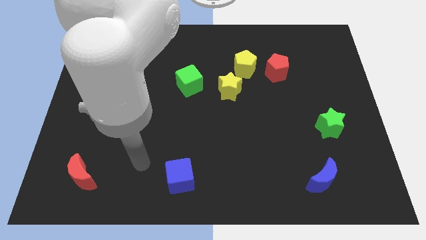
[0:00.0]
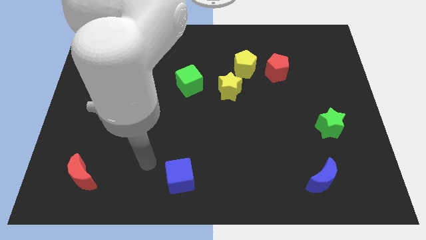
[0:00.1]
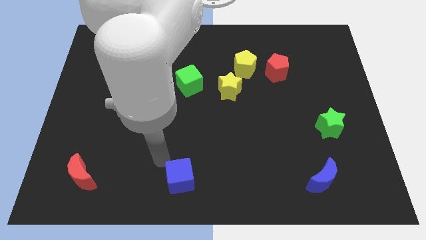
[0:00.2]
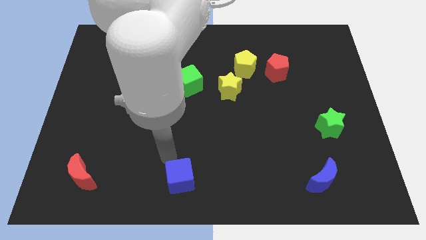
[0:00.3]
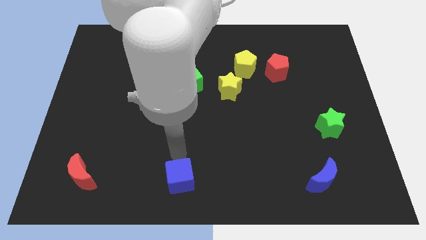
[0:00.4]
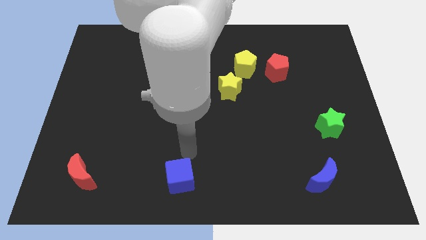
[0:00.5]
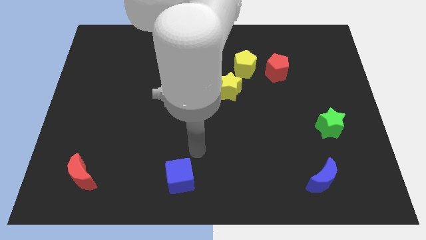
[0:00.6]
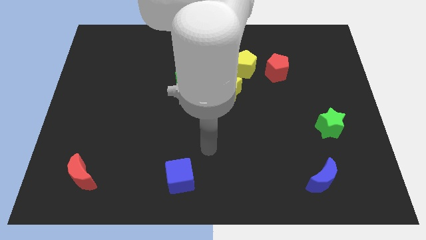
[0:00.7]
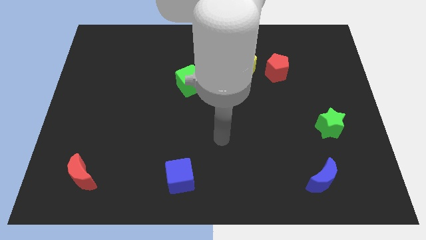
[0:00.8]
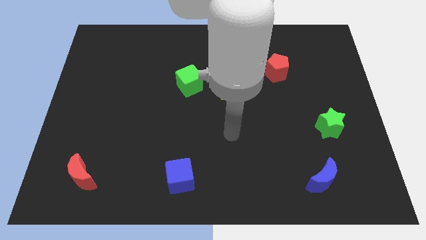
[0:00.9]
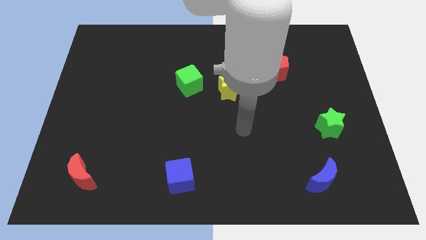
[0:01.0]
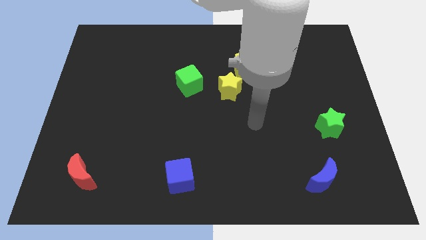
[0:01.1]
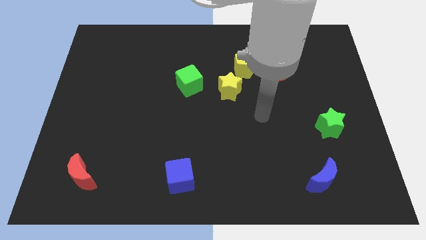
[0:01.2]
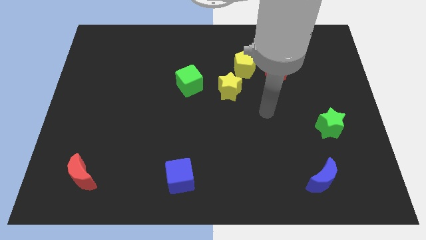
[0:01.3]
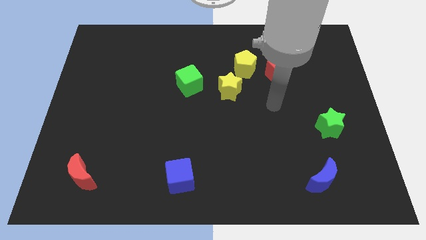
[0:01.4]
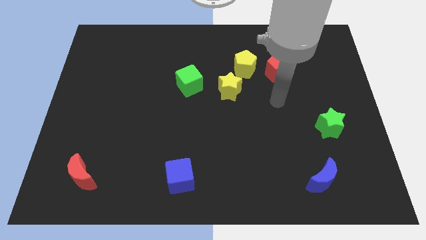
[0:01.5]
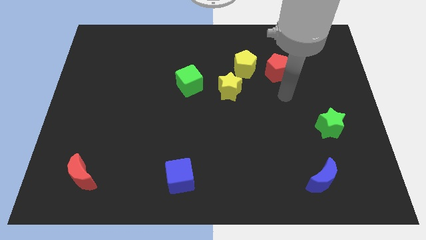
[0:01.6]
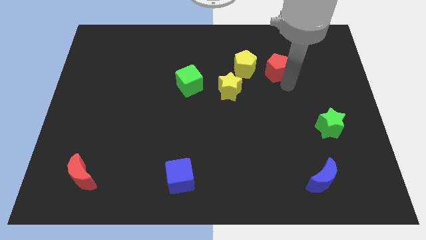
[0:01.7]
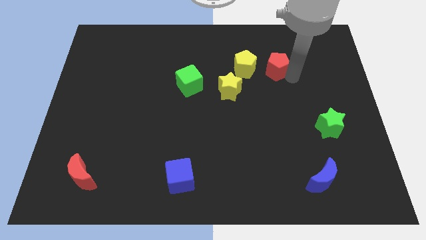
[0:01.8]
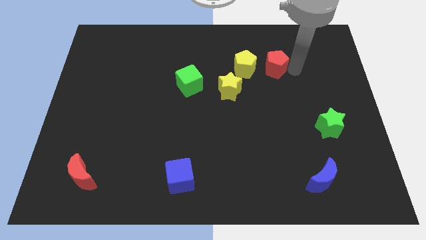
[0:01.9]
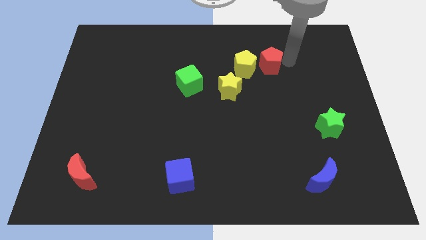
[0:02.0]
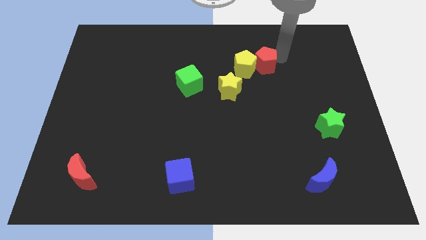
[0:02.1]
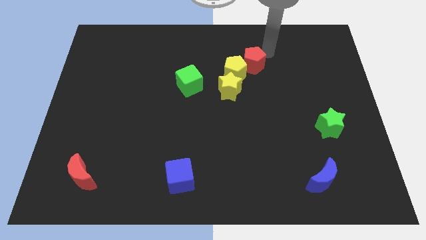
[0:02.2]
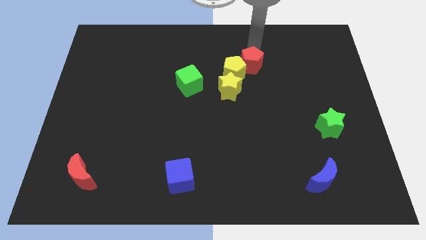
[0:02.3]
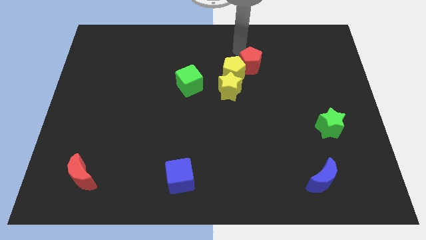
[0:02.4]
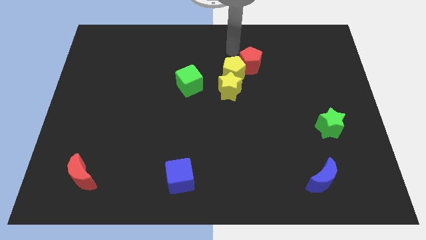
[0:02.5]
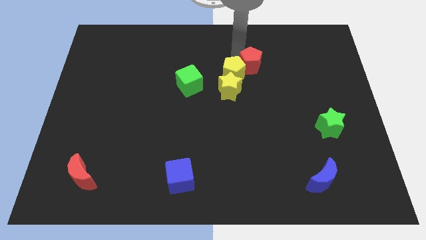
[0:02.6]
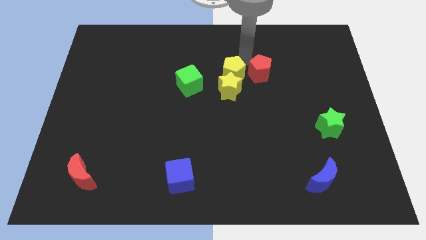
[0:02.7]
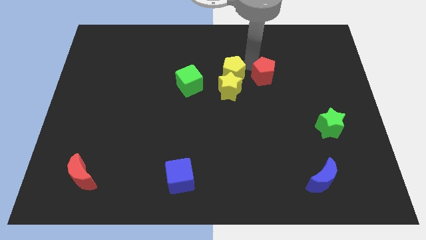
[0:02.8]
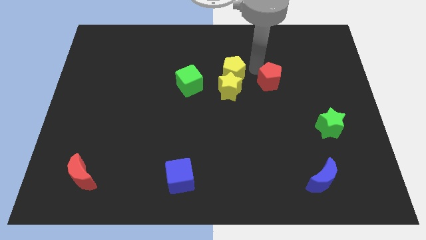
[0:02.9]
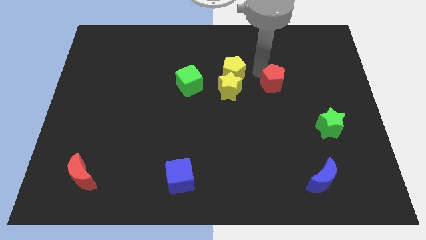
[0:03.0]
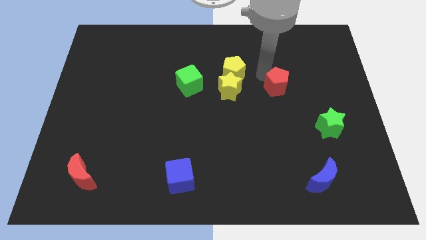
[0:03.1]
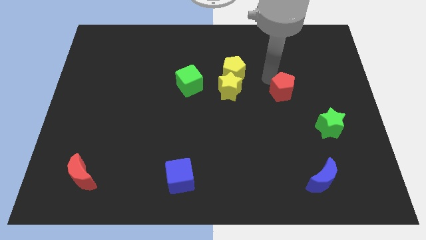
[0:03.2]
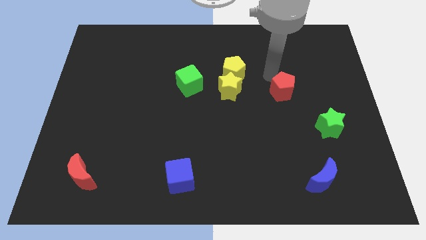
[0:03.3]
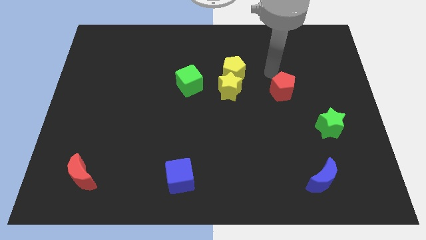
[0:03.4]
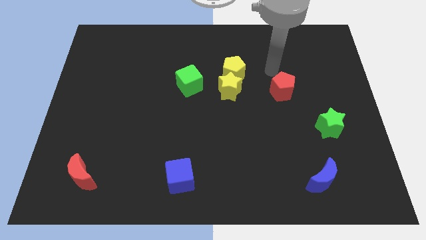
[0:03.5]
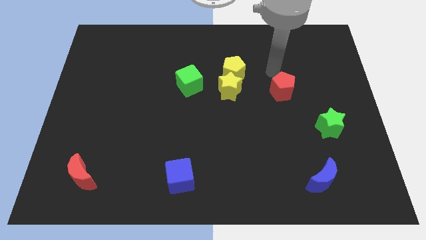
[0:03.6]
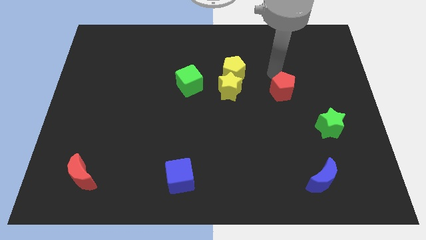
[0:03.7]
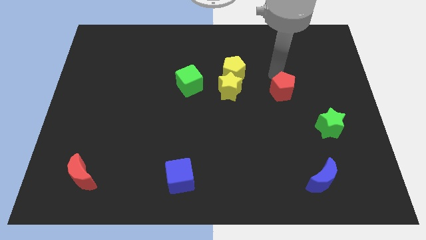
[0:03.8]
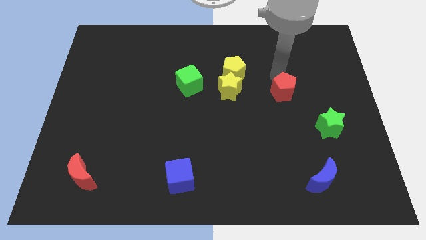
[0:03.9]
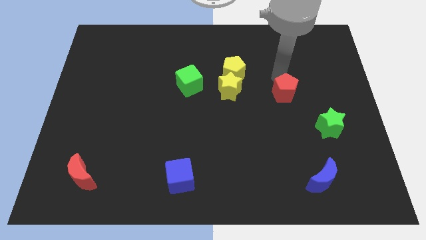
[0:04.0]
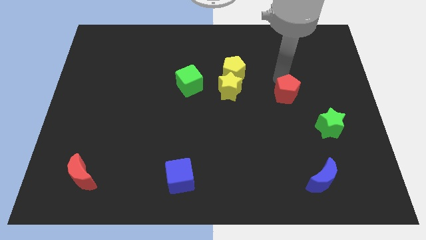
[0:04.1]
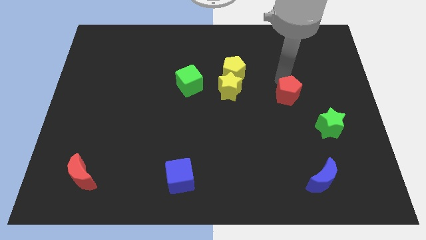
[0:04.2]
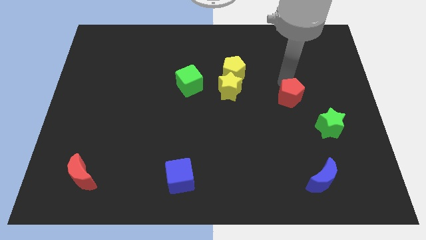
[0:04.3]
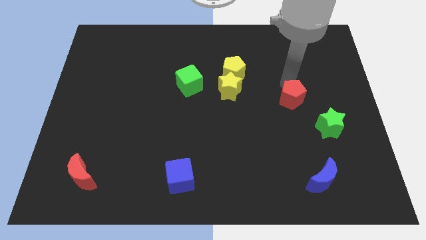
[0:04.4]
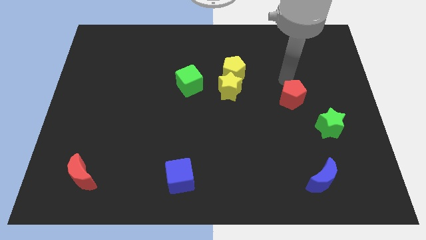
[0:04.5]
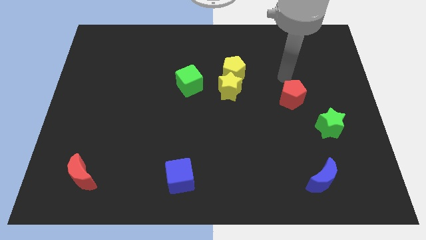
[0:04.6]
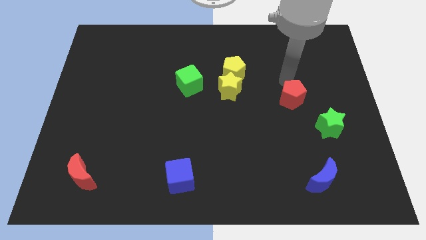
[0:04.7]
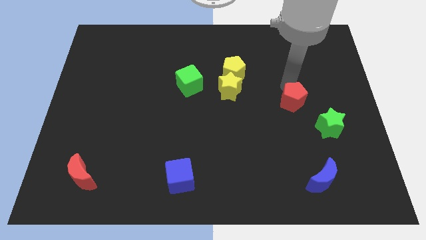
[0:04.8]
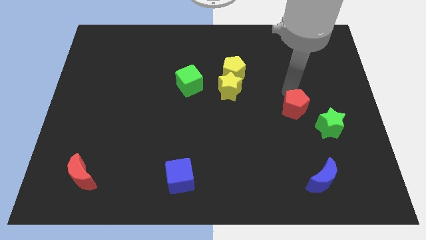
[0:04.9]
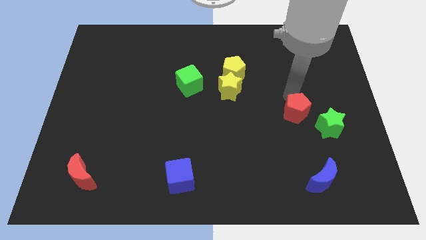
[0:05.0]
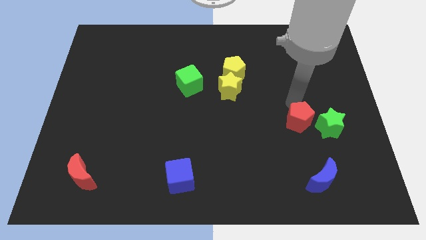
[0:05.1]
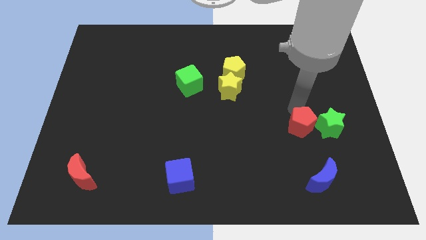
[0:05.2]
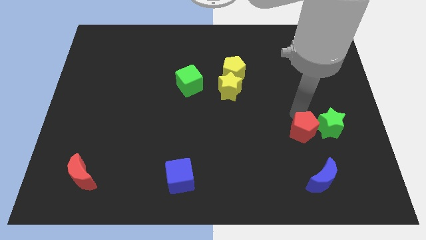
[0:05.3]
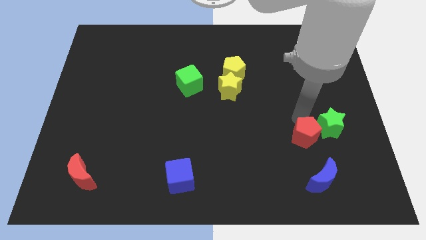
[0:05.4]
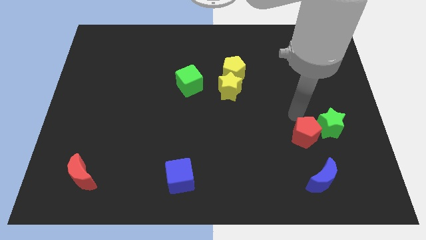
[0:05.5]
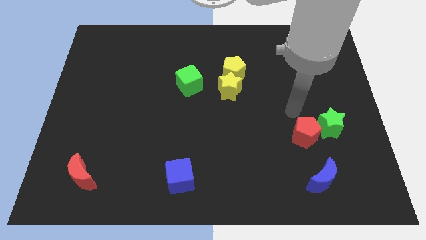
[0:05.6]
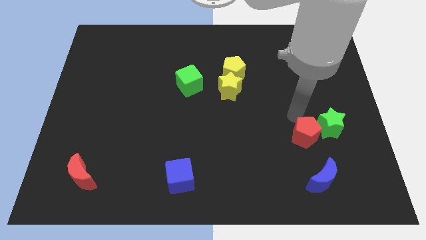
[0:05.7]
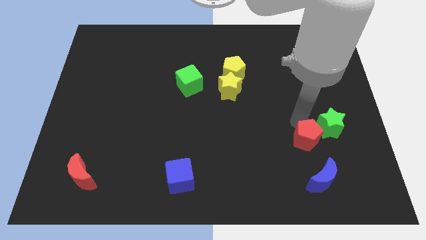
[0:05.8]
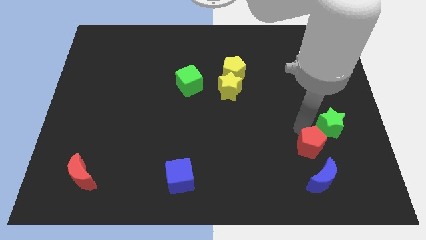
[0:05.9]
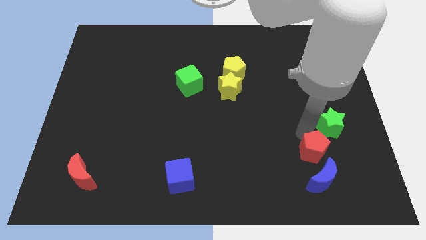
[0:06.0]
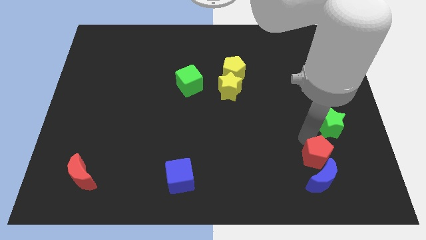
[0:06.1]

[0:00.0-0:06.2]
push the red pentagon to the blue moon

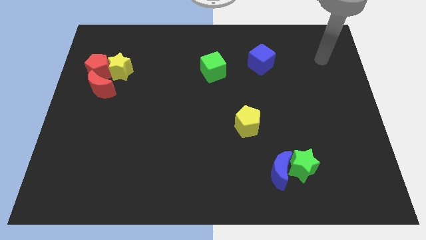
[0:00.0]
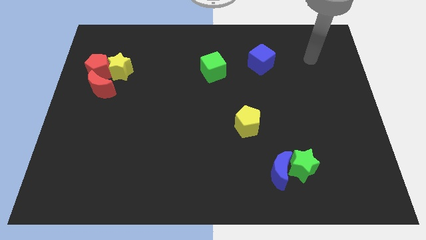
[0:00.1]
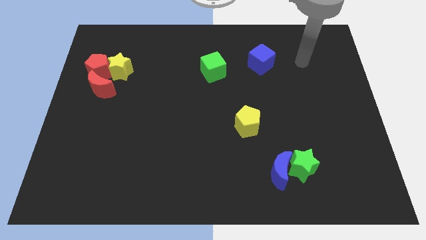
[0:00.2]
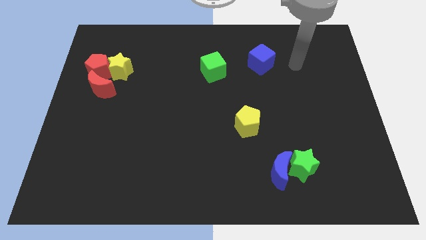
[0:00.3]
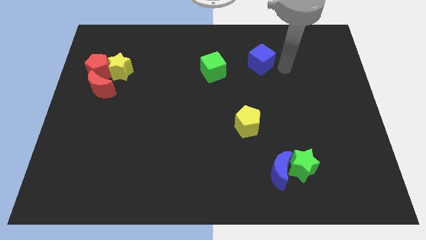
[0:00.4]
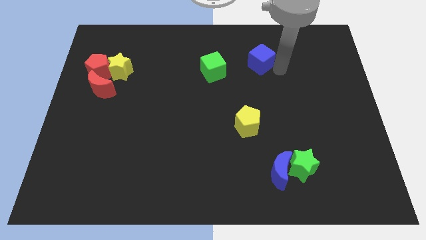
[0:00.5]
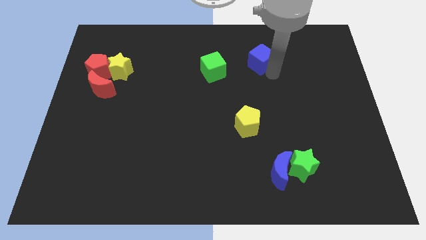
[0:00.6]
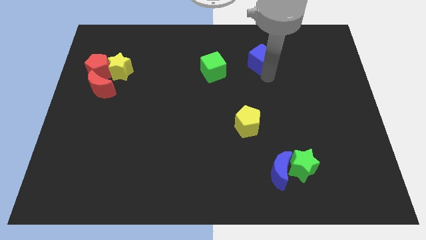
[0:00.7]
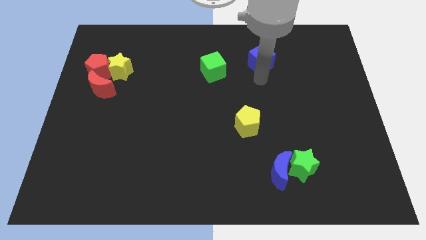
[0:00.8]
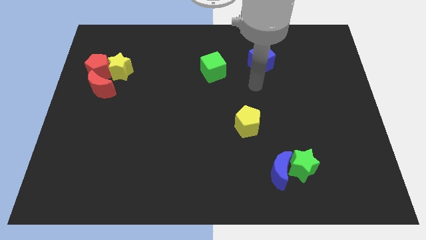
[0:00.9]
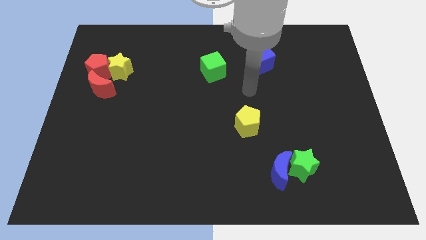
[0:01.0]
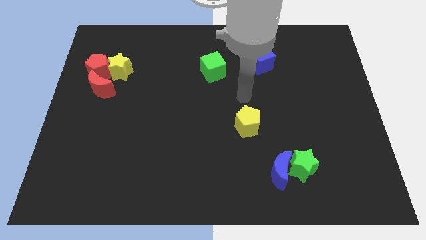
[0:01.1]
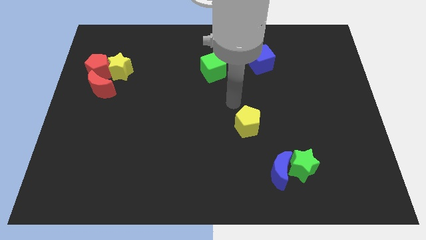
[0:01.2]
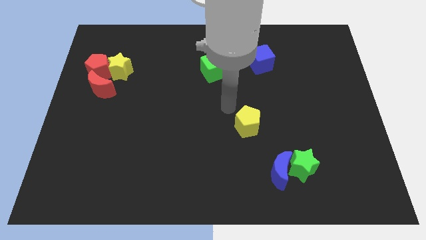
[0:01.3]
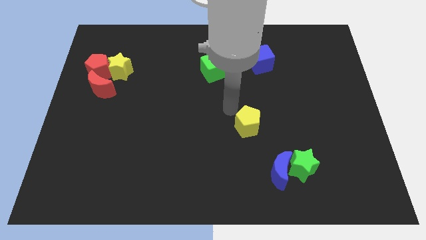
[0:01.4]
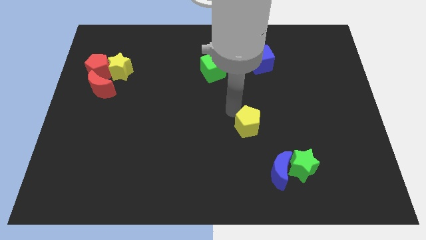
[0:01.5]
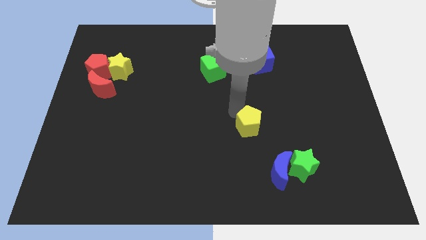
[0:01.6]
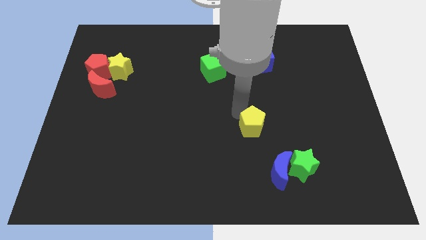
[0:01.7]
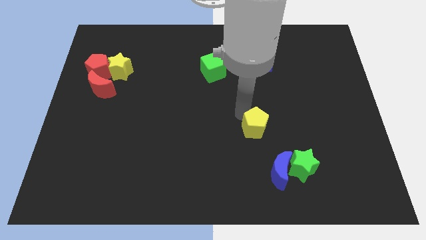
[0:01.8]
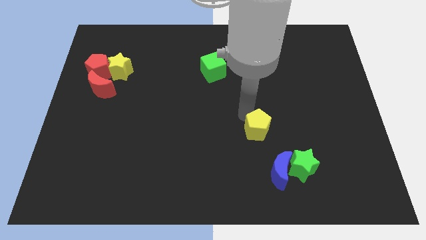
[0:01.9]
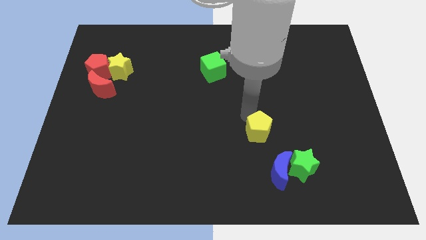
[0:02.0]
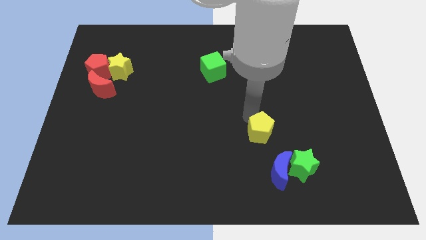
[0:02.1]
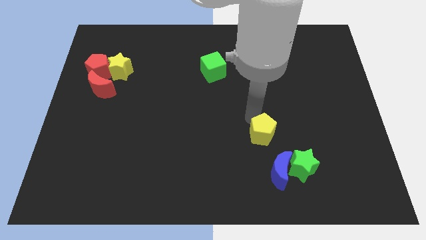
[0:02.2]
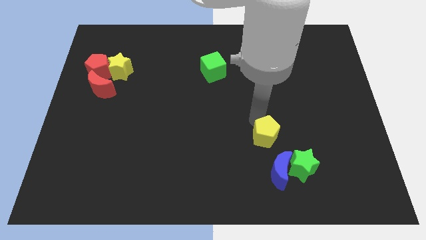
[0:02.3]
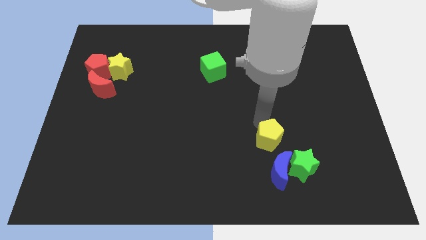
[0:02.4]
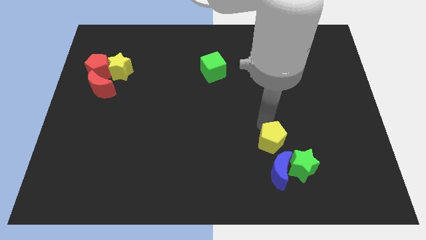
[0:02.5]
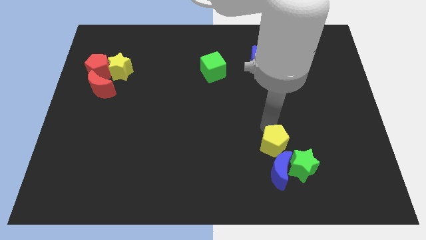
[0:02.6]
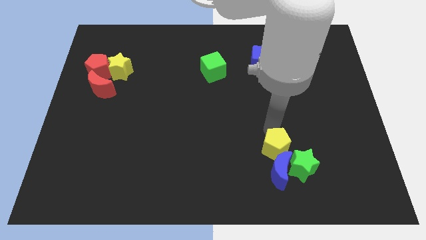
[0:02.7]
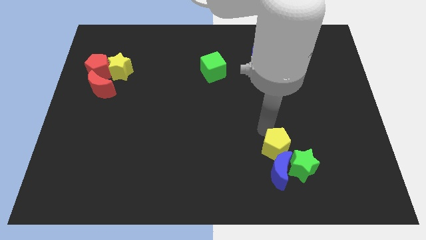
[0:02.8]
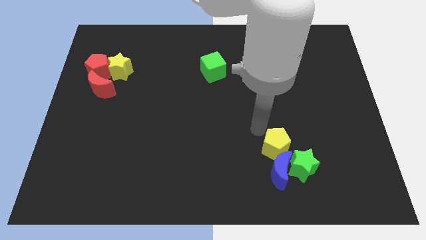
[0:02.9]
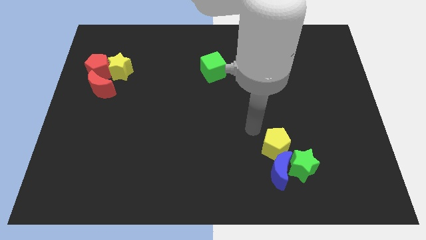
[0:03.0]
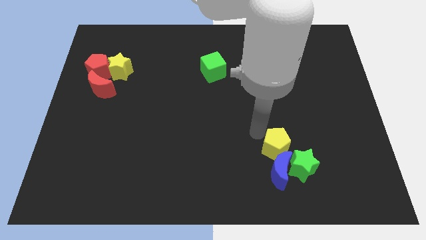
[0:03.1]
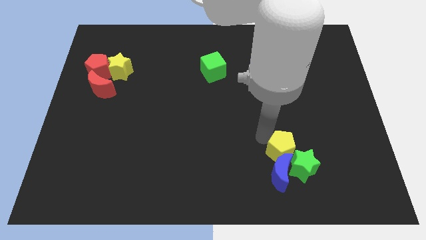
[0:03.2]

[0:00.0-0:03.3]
push the yellow pentagon next to the green star
